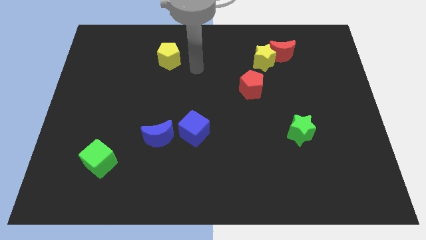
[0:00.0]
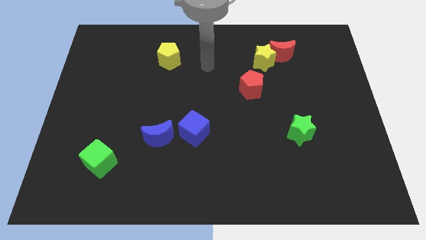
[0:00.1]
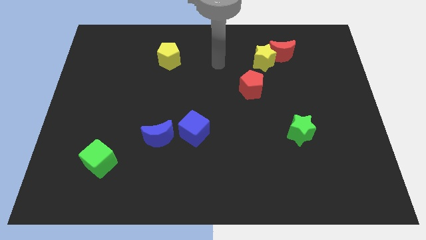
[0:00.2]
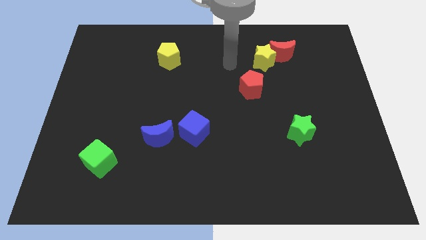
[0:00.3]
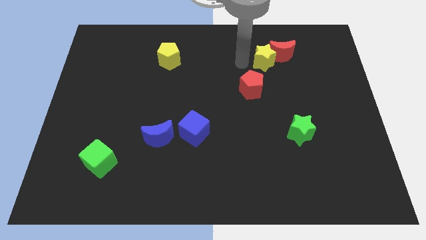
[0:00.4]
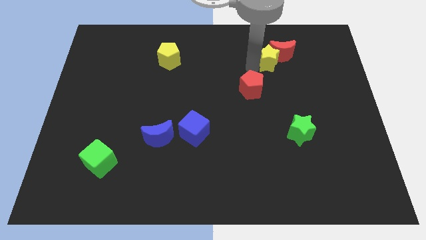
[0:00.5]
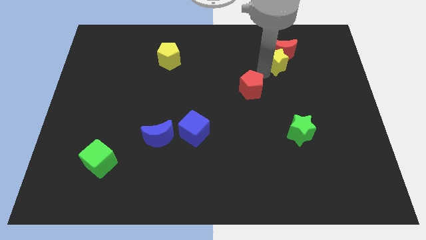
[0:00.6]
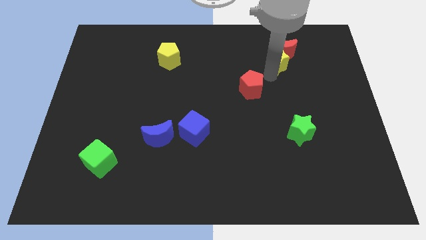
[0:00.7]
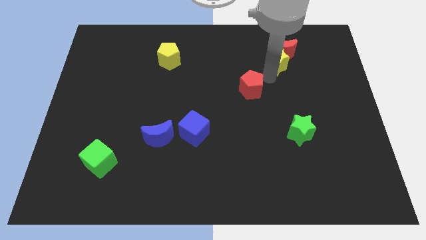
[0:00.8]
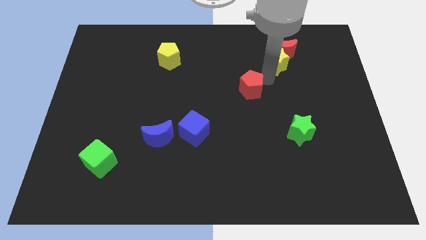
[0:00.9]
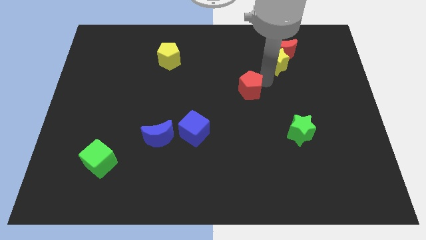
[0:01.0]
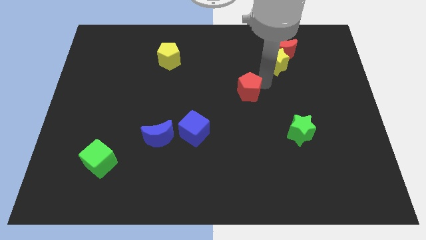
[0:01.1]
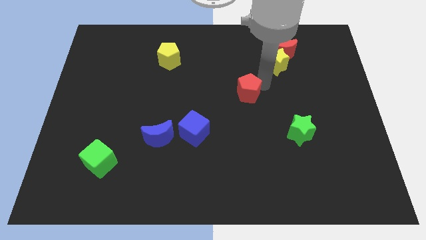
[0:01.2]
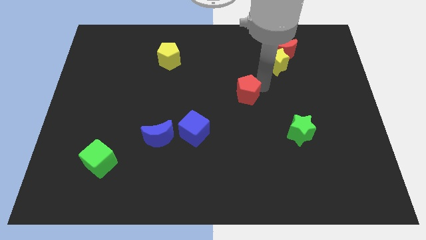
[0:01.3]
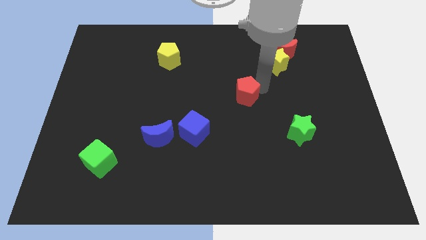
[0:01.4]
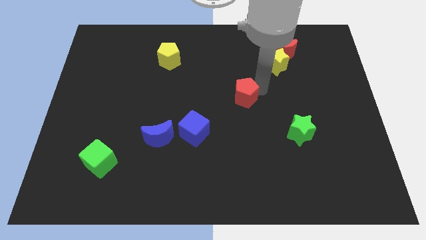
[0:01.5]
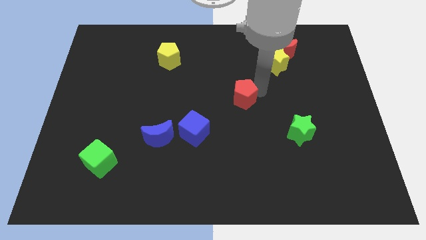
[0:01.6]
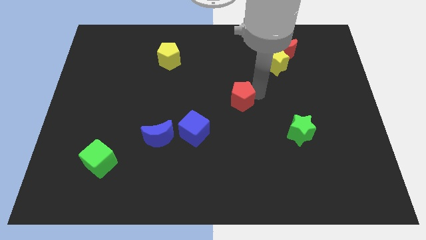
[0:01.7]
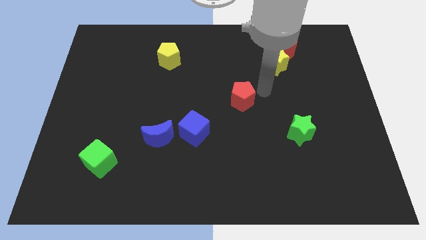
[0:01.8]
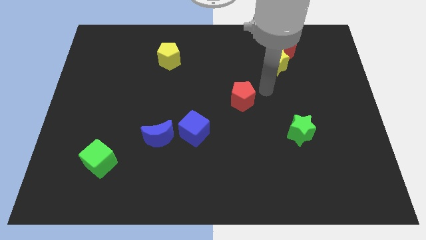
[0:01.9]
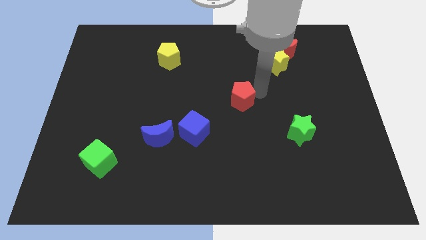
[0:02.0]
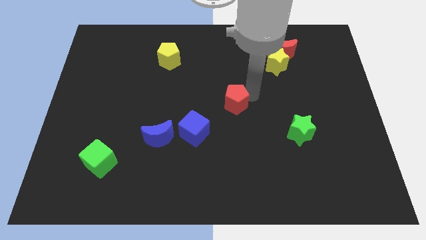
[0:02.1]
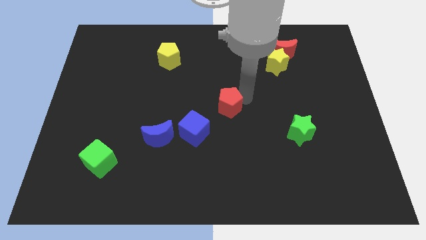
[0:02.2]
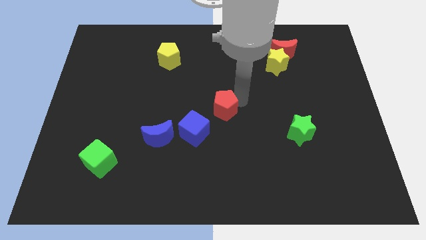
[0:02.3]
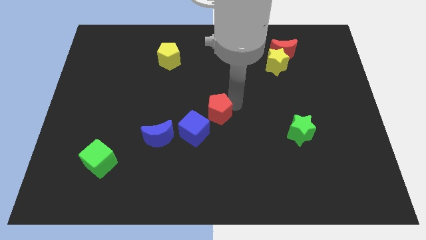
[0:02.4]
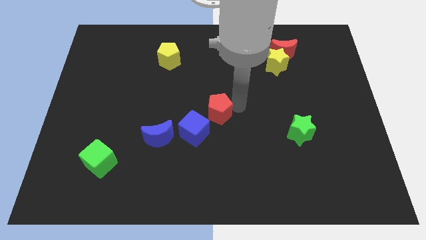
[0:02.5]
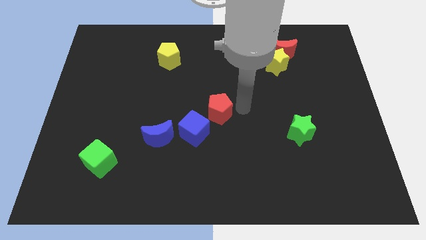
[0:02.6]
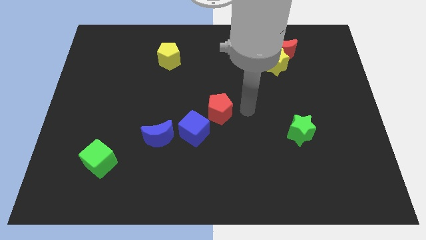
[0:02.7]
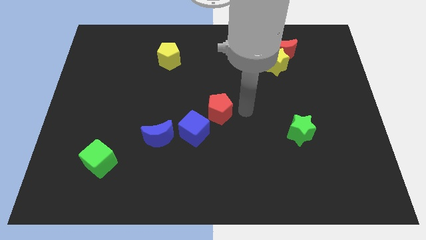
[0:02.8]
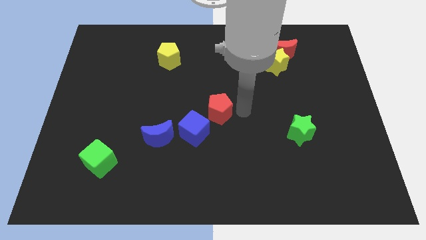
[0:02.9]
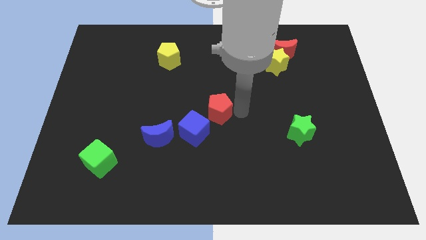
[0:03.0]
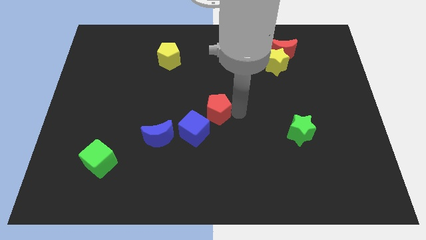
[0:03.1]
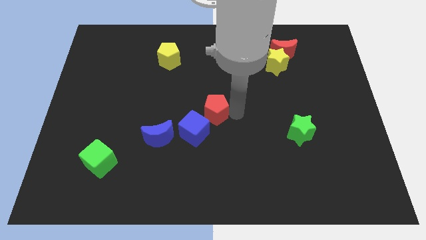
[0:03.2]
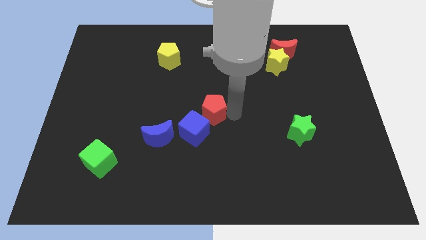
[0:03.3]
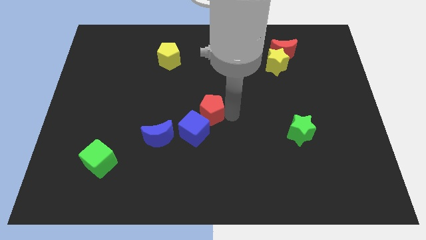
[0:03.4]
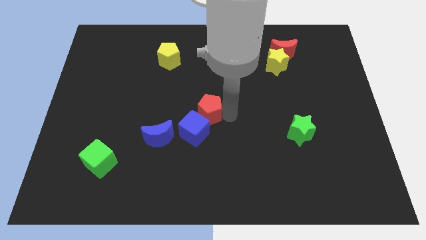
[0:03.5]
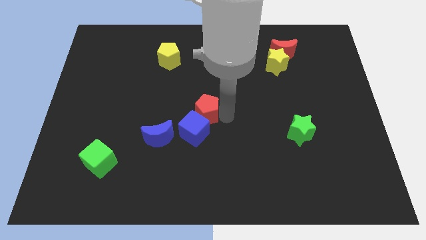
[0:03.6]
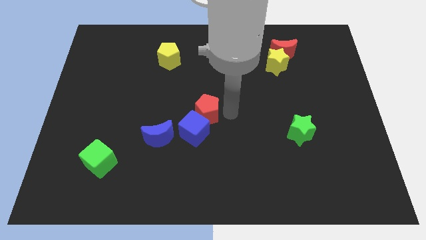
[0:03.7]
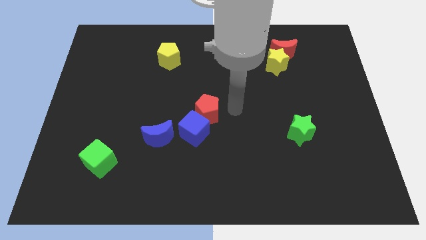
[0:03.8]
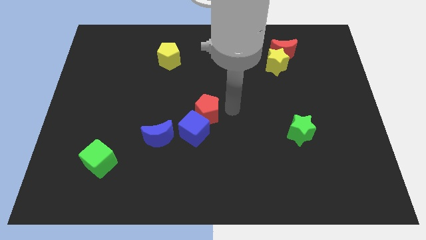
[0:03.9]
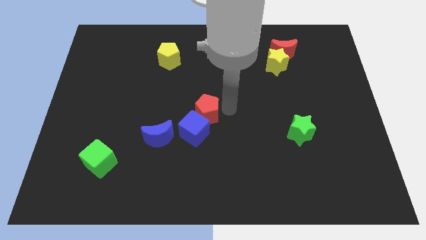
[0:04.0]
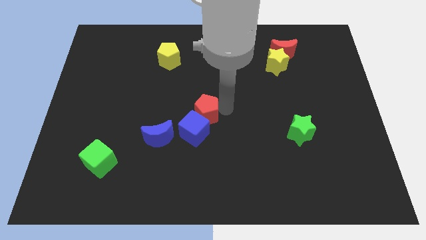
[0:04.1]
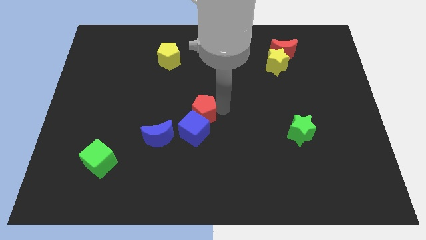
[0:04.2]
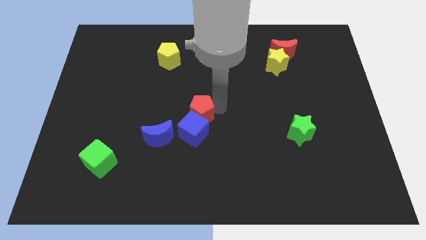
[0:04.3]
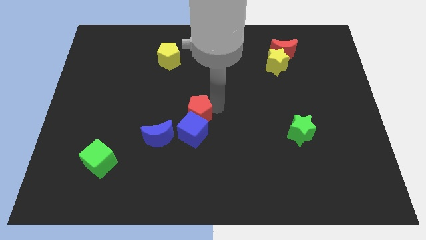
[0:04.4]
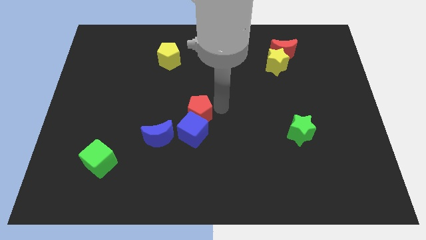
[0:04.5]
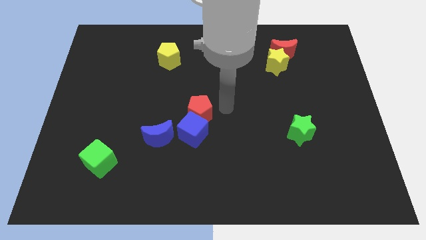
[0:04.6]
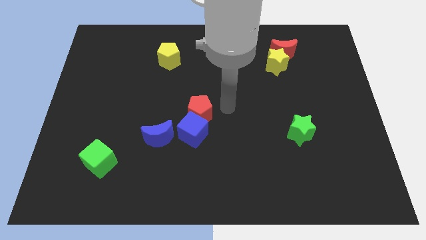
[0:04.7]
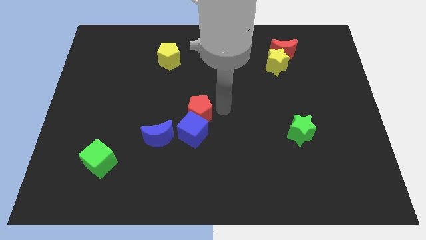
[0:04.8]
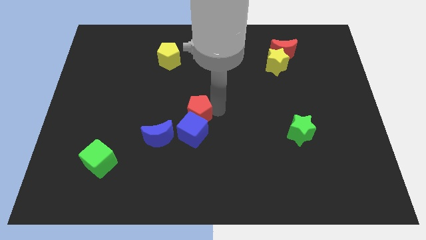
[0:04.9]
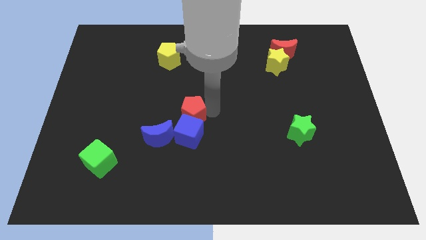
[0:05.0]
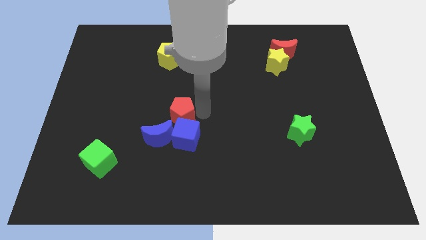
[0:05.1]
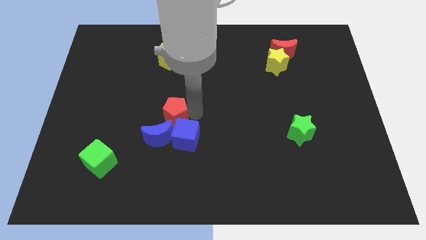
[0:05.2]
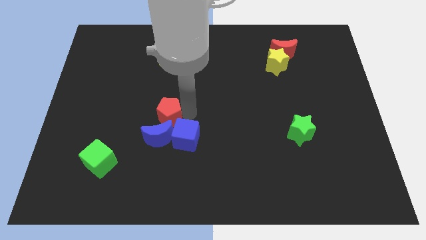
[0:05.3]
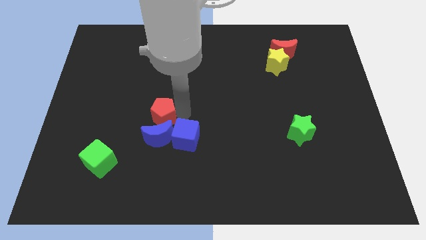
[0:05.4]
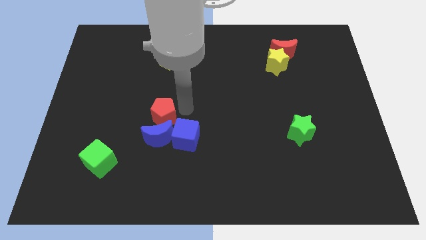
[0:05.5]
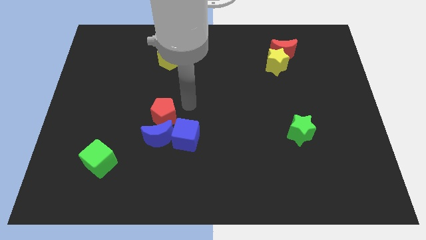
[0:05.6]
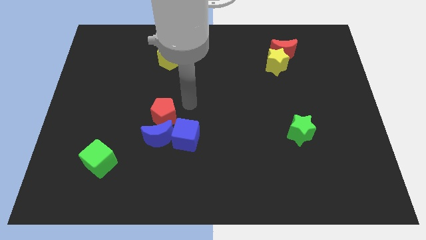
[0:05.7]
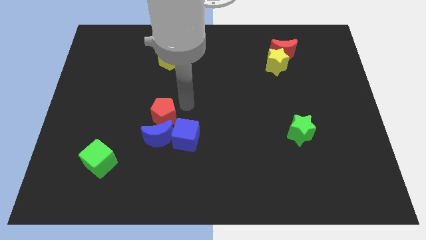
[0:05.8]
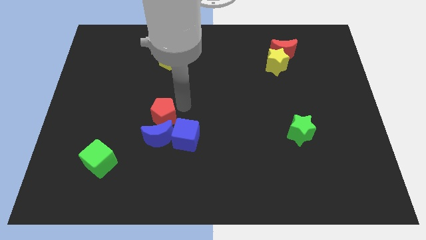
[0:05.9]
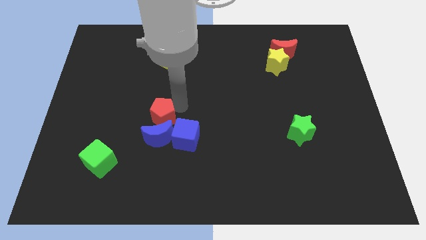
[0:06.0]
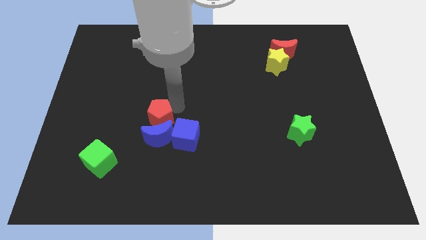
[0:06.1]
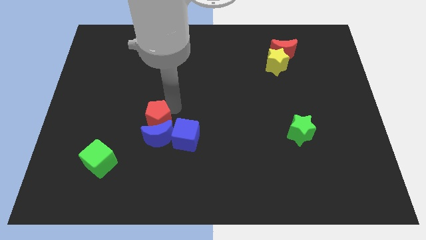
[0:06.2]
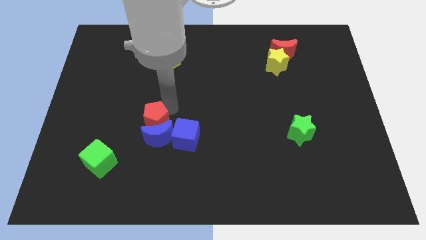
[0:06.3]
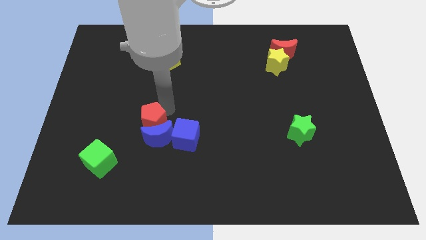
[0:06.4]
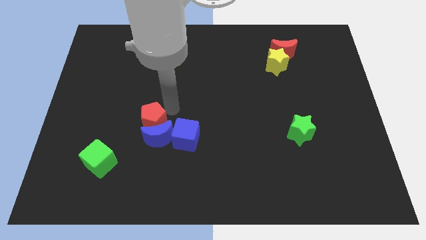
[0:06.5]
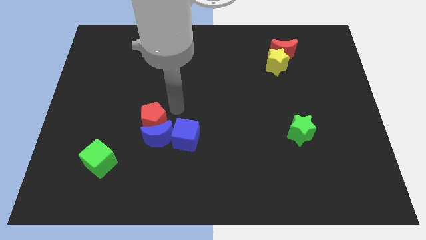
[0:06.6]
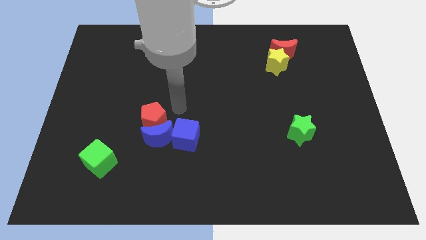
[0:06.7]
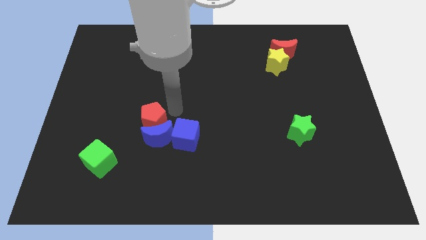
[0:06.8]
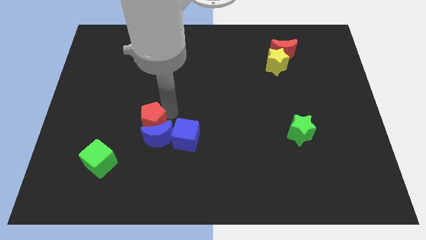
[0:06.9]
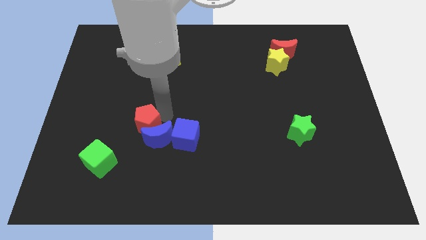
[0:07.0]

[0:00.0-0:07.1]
put the red pentagon left of the blue moon

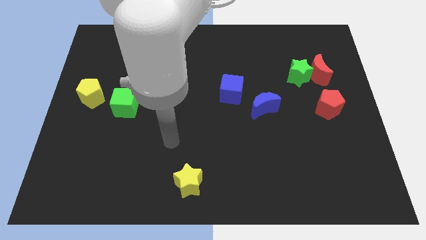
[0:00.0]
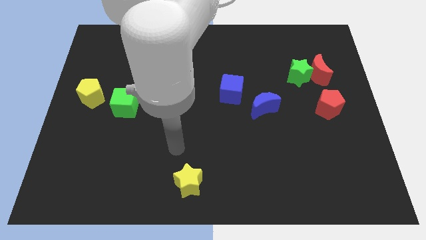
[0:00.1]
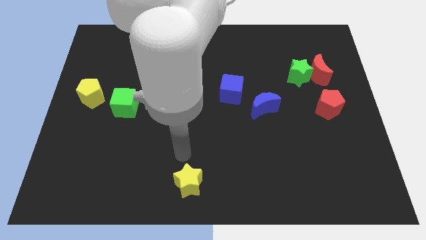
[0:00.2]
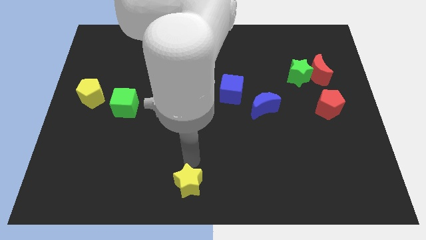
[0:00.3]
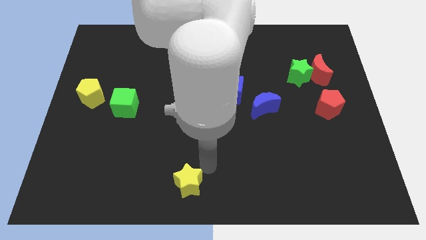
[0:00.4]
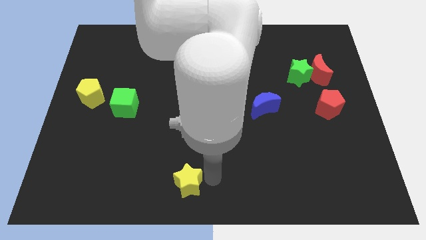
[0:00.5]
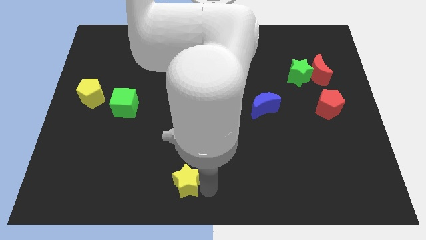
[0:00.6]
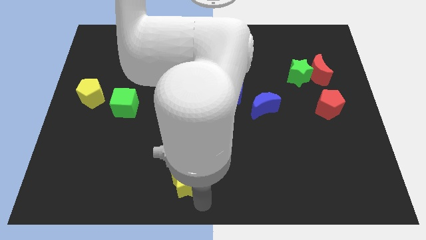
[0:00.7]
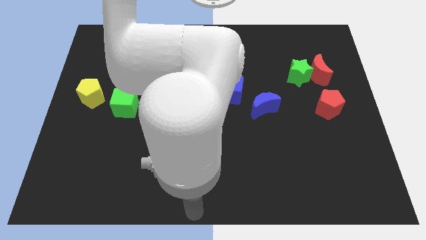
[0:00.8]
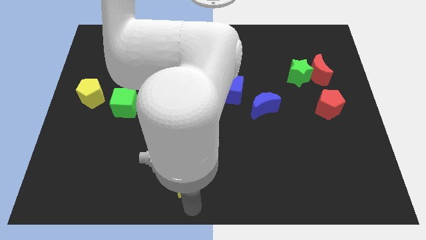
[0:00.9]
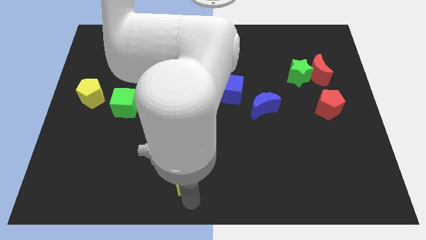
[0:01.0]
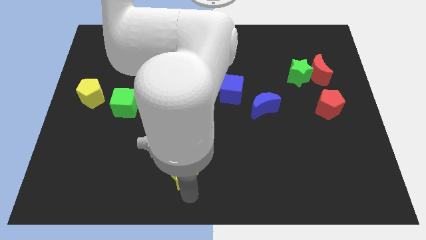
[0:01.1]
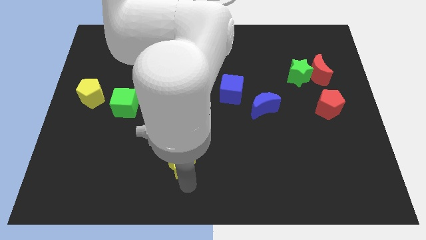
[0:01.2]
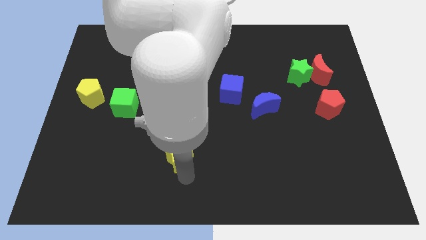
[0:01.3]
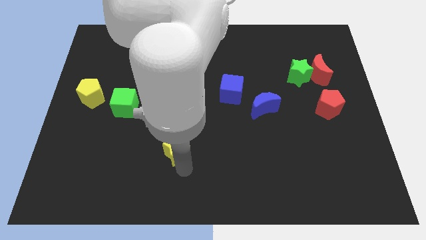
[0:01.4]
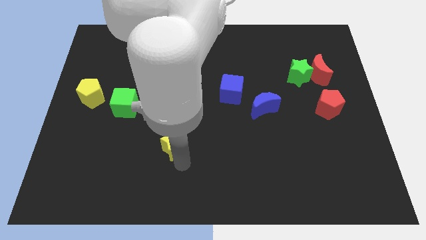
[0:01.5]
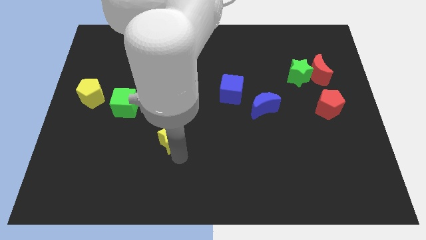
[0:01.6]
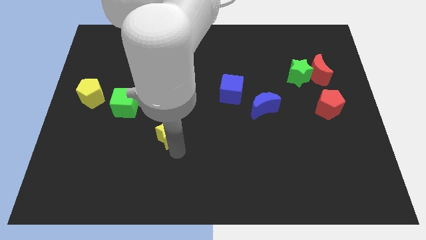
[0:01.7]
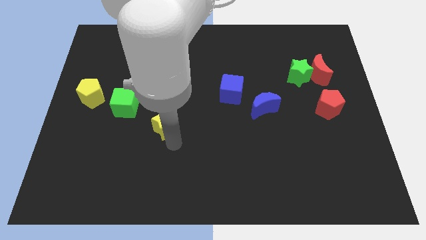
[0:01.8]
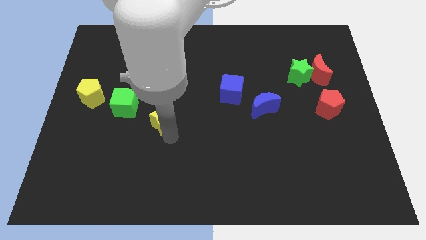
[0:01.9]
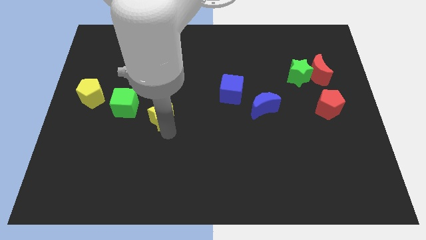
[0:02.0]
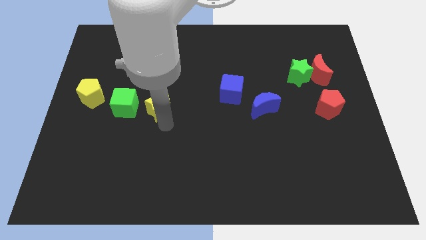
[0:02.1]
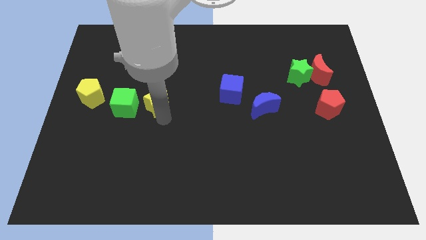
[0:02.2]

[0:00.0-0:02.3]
move the yellow star diagonally up and to the right of the green cube
